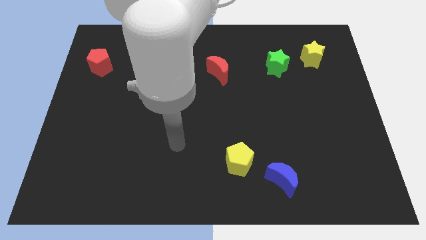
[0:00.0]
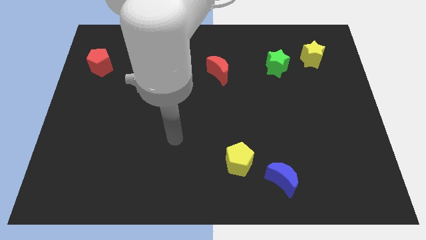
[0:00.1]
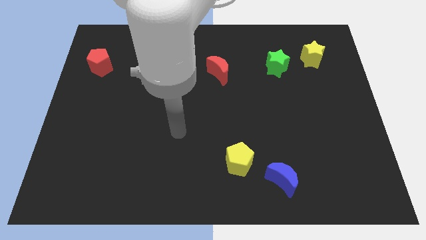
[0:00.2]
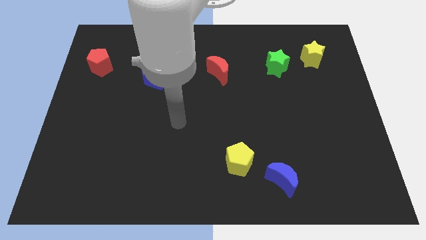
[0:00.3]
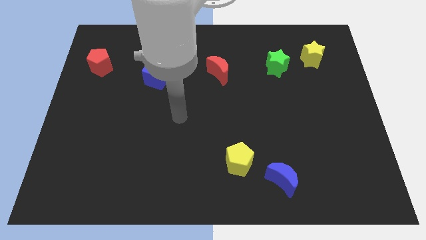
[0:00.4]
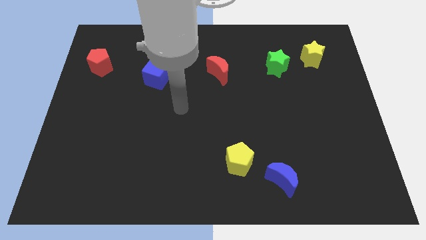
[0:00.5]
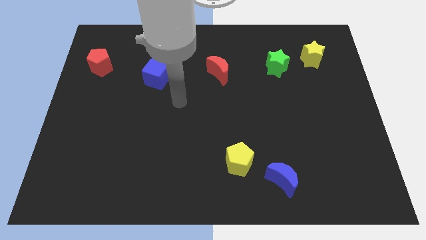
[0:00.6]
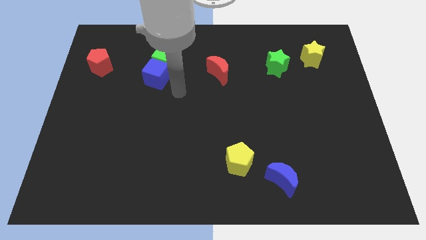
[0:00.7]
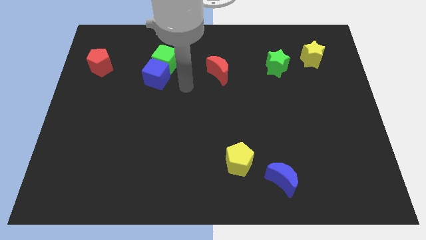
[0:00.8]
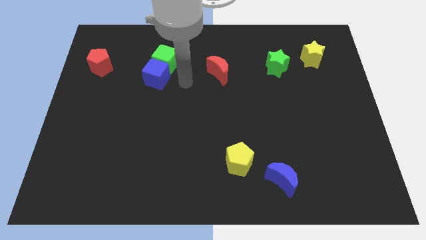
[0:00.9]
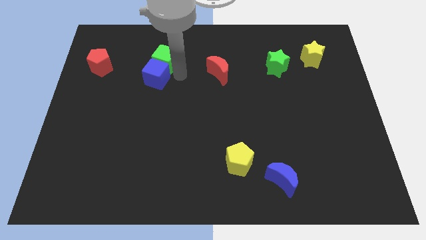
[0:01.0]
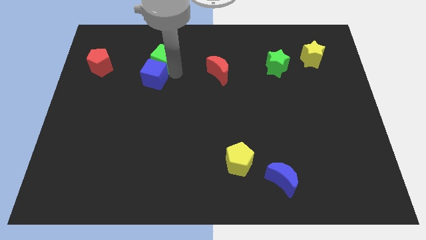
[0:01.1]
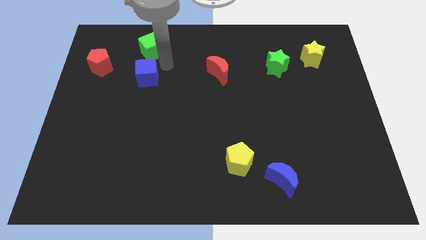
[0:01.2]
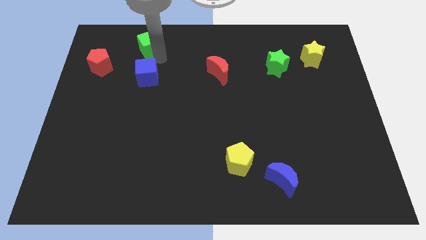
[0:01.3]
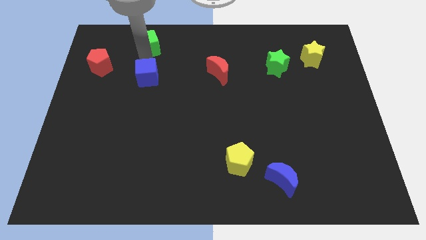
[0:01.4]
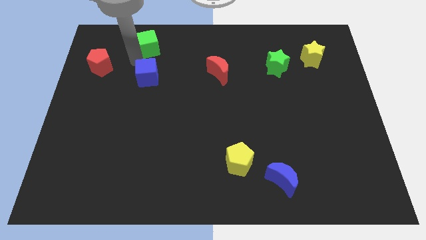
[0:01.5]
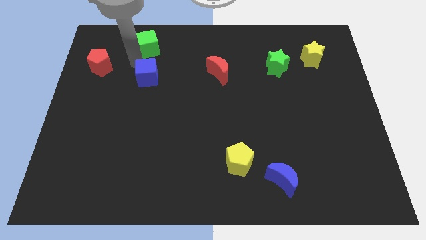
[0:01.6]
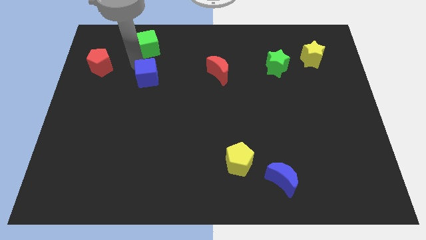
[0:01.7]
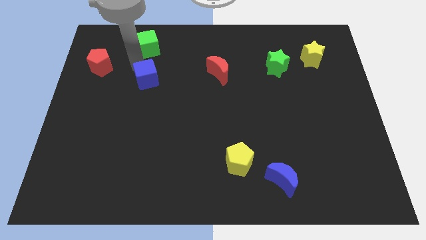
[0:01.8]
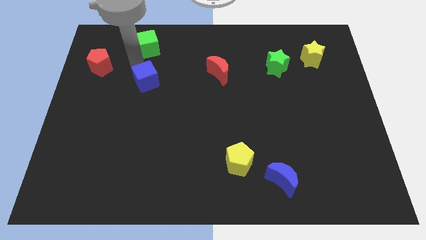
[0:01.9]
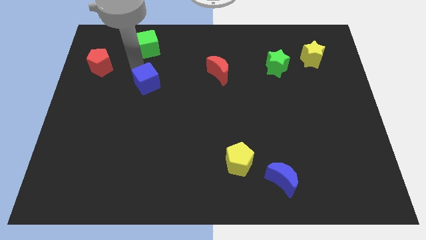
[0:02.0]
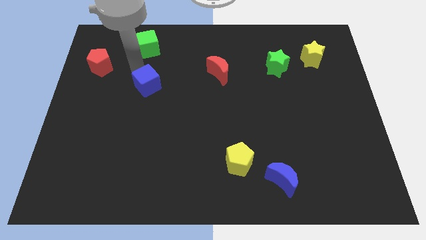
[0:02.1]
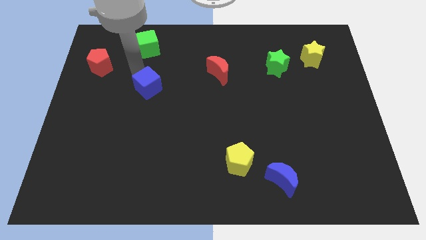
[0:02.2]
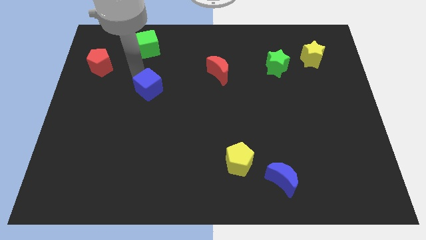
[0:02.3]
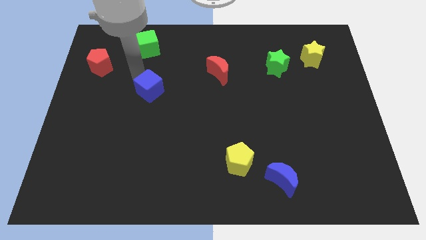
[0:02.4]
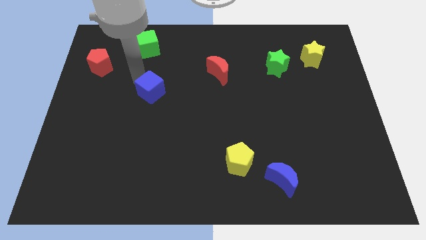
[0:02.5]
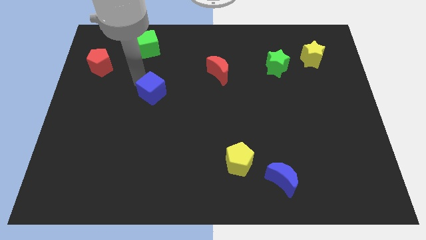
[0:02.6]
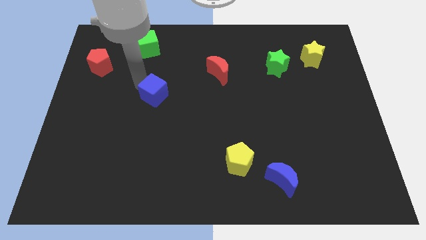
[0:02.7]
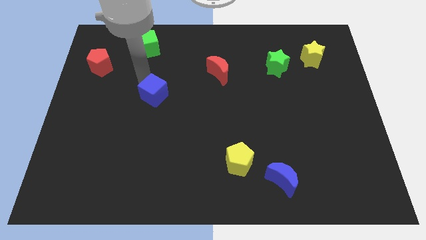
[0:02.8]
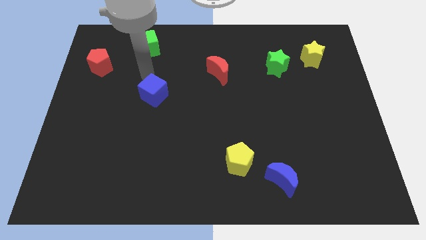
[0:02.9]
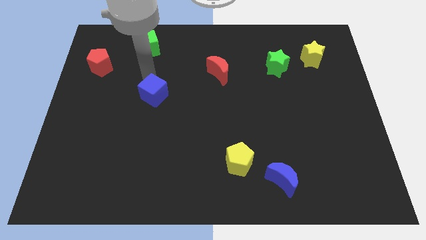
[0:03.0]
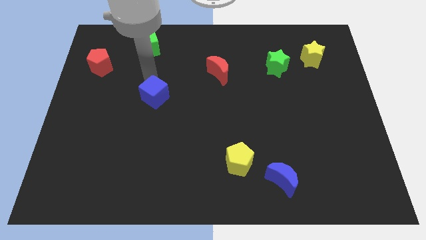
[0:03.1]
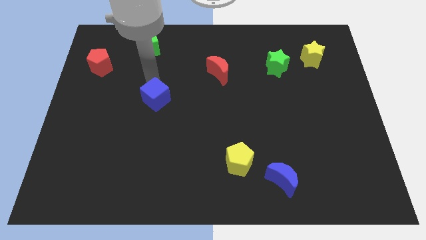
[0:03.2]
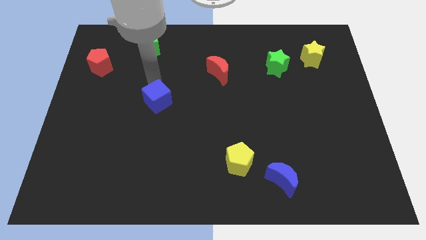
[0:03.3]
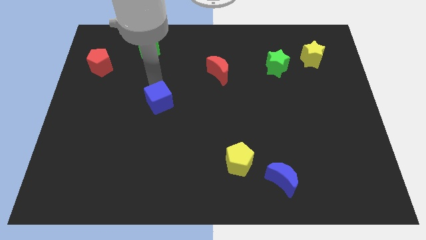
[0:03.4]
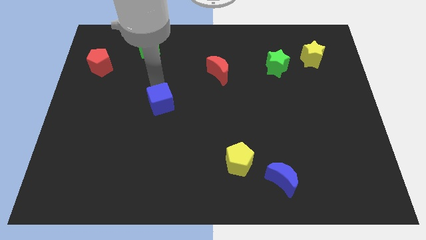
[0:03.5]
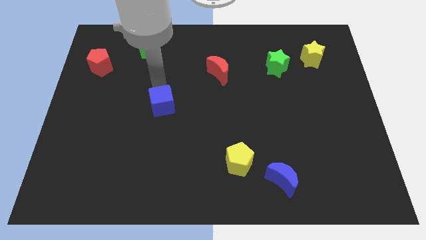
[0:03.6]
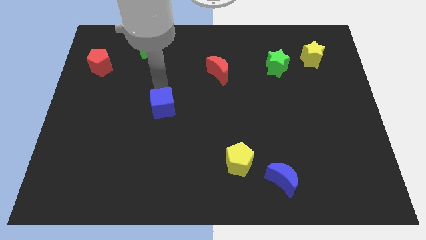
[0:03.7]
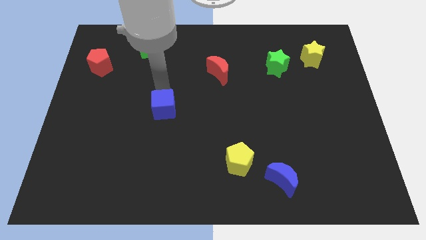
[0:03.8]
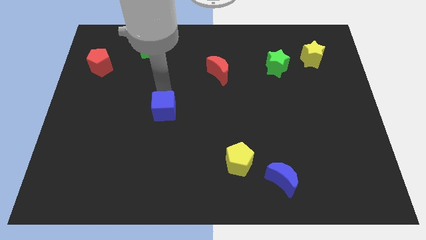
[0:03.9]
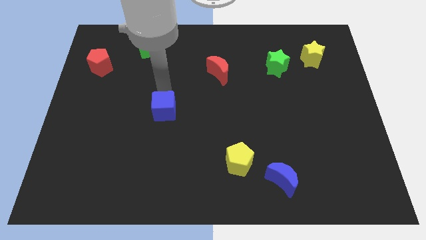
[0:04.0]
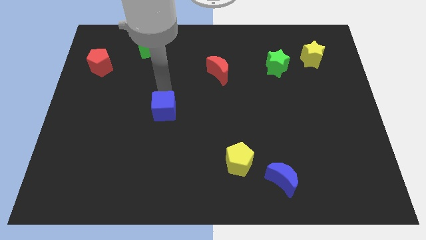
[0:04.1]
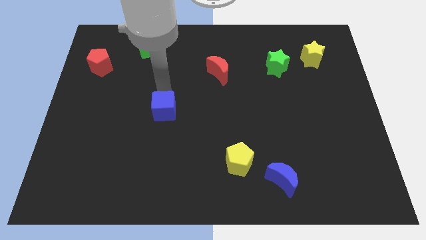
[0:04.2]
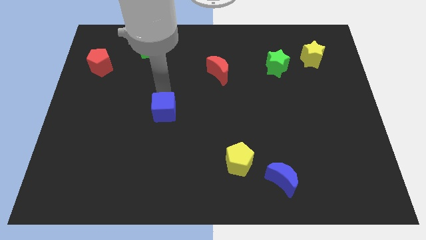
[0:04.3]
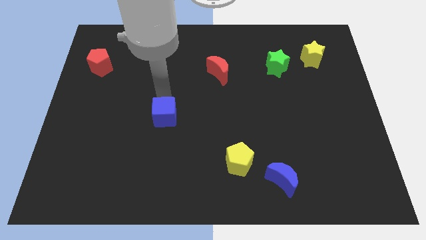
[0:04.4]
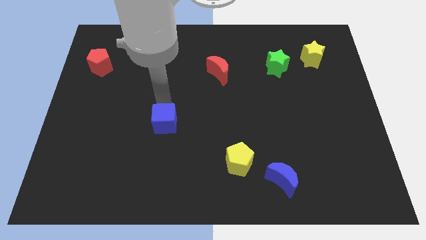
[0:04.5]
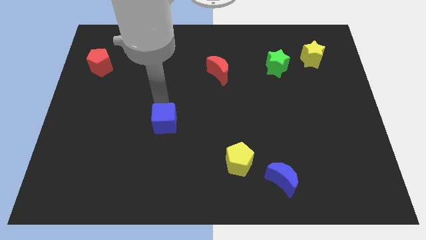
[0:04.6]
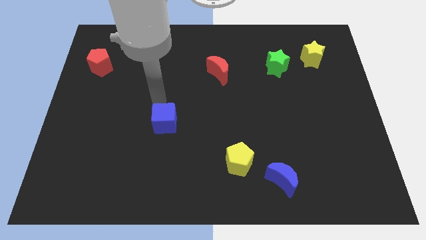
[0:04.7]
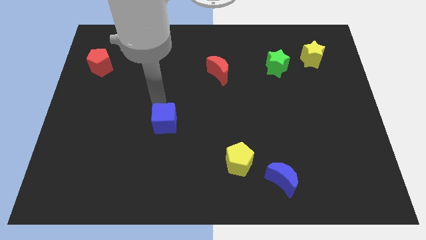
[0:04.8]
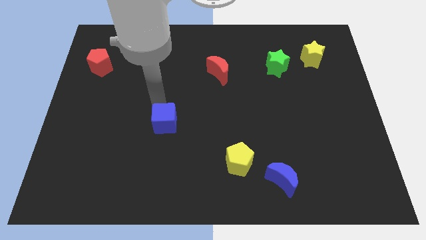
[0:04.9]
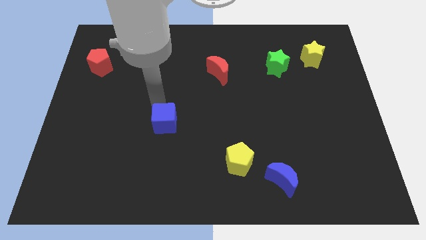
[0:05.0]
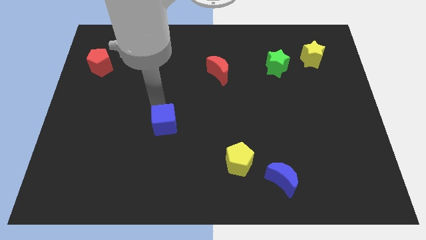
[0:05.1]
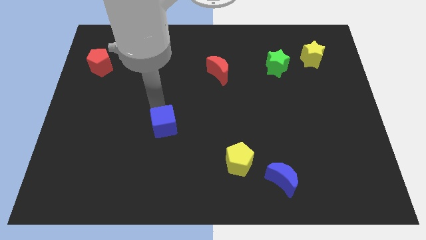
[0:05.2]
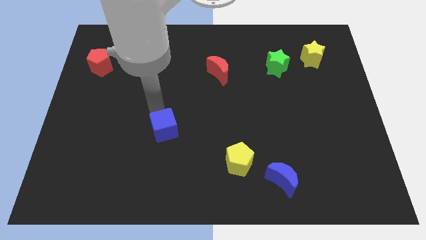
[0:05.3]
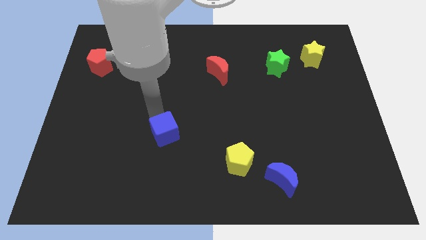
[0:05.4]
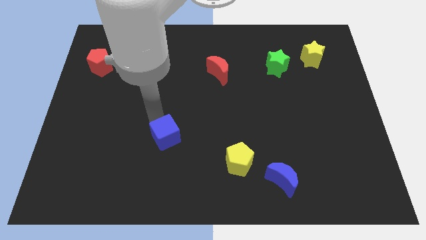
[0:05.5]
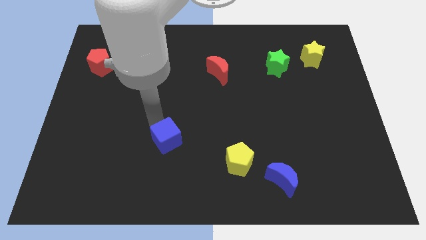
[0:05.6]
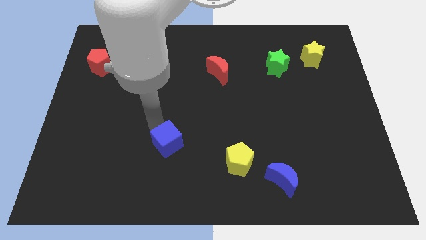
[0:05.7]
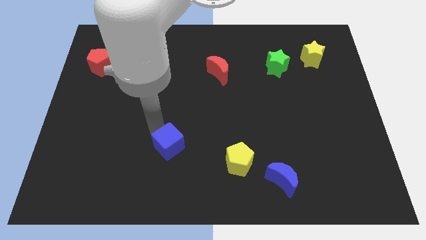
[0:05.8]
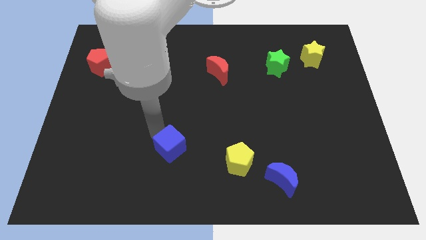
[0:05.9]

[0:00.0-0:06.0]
slide the blue cube to the left of the yellow pentagon

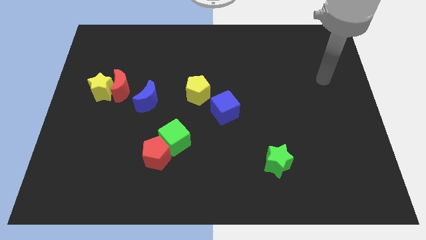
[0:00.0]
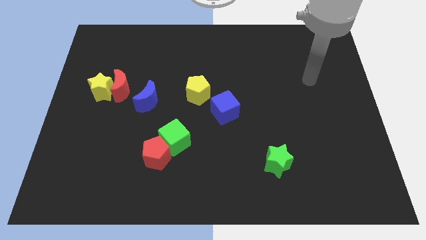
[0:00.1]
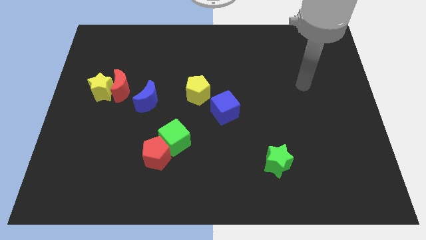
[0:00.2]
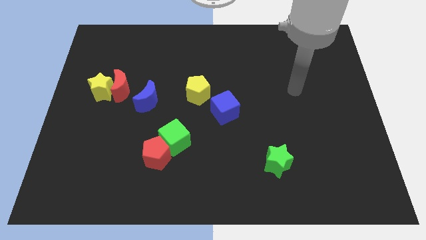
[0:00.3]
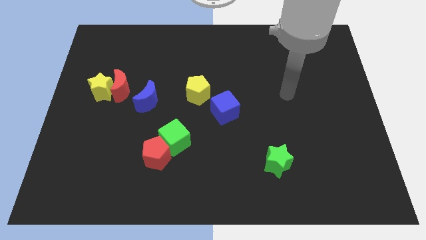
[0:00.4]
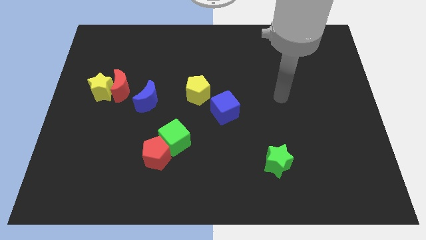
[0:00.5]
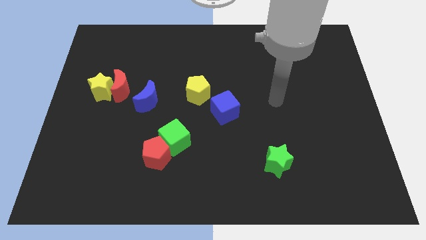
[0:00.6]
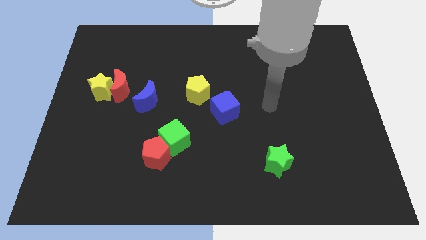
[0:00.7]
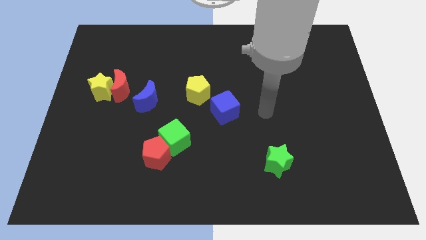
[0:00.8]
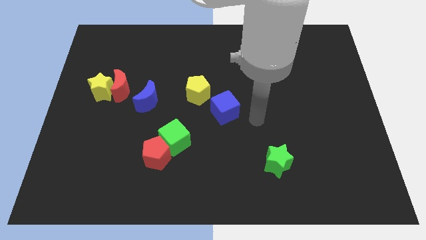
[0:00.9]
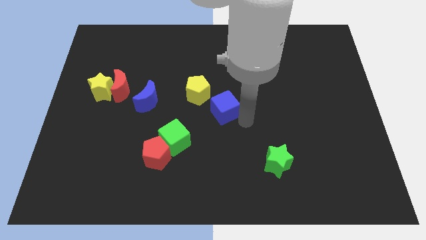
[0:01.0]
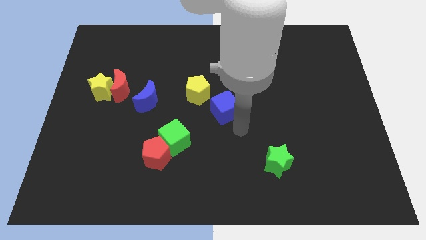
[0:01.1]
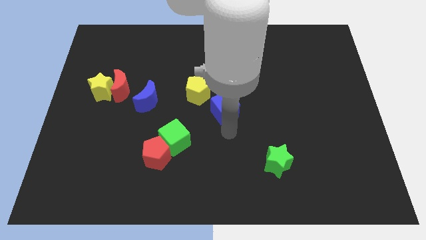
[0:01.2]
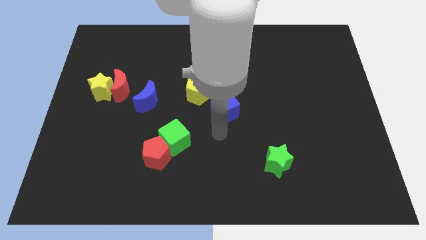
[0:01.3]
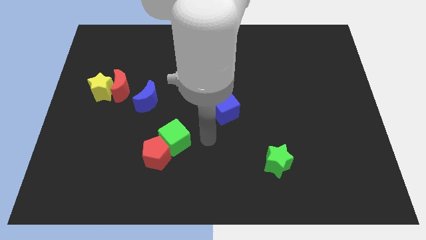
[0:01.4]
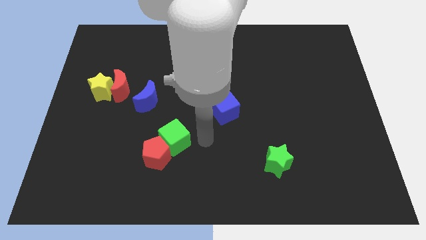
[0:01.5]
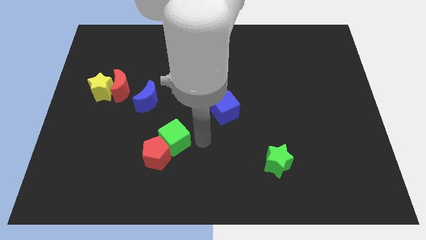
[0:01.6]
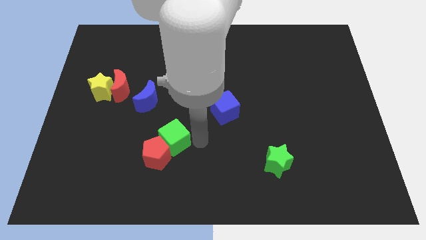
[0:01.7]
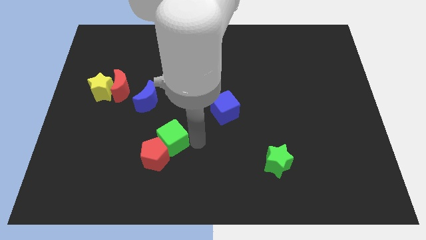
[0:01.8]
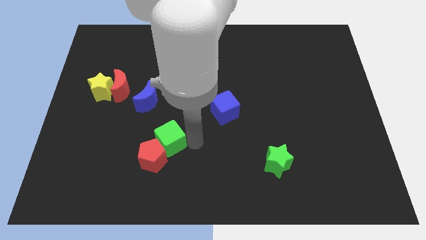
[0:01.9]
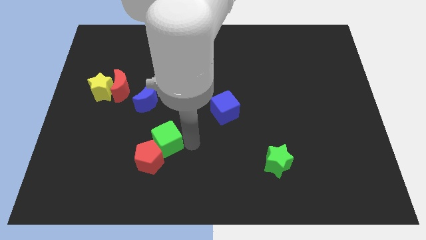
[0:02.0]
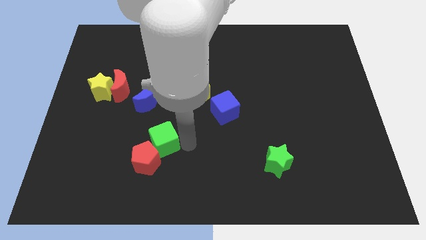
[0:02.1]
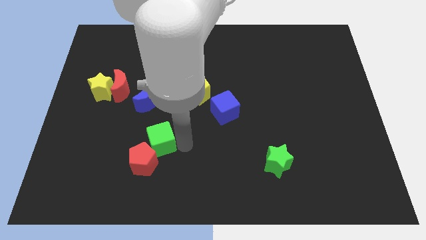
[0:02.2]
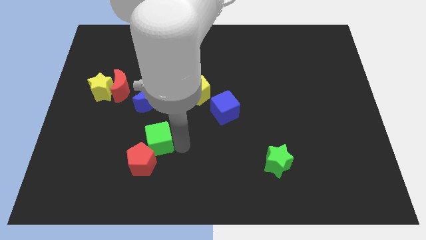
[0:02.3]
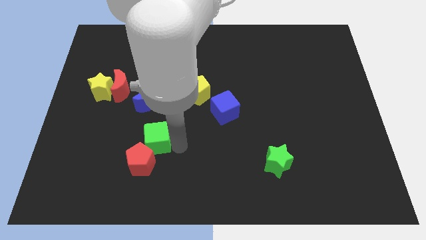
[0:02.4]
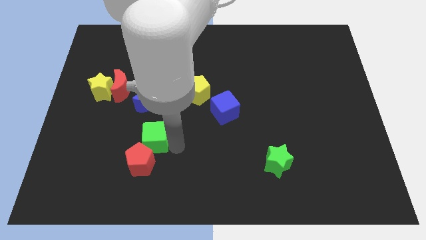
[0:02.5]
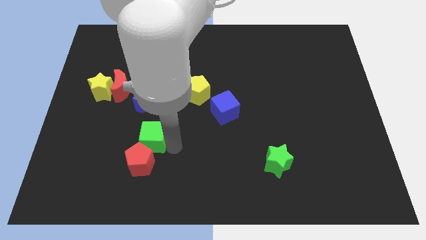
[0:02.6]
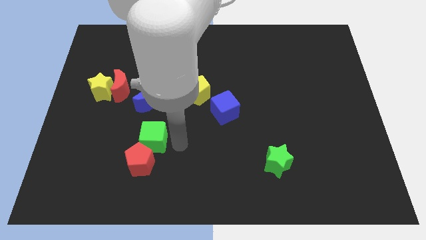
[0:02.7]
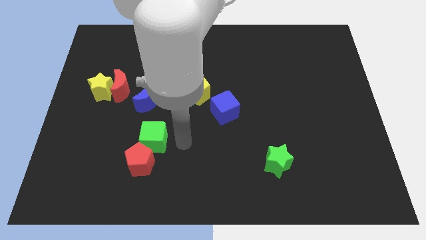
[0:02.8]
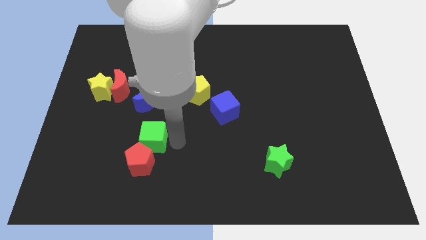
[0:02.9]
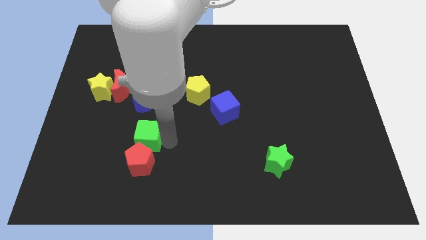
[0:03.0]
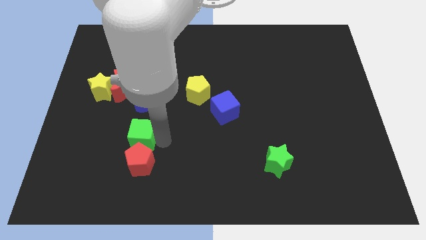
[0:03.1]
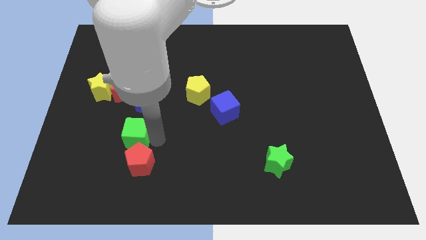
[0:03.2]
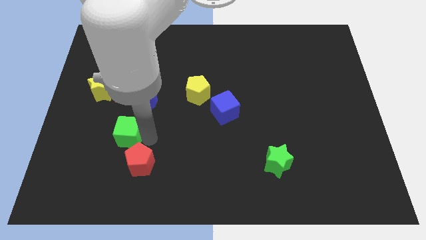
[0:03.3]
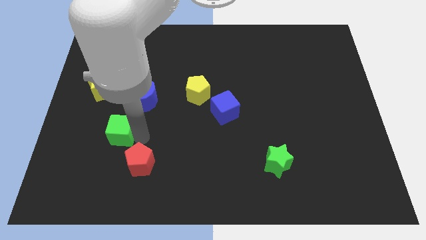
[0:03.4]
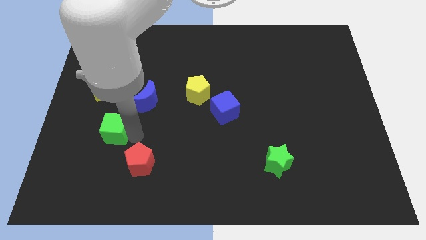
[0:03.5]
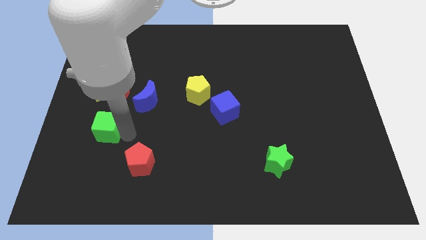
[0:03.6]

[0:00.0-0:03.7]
put the green cube to the bottom side of the yellow star
